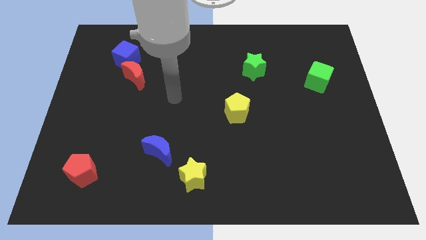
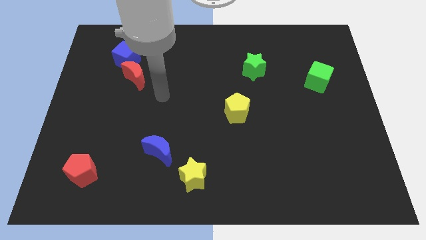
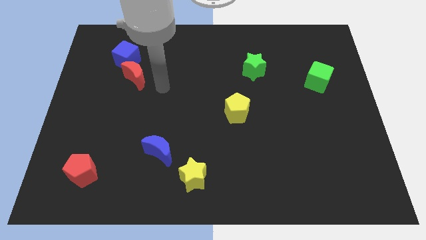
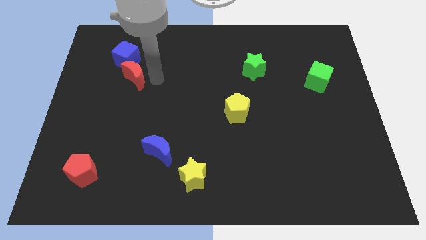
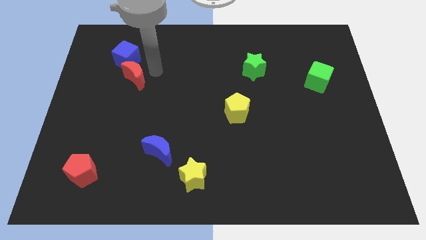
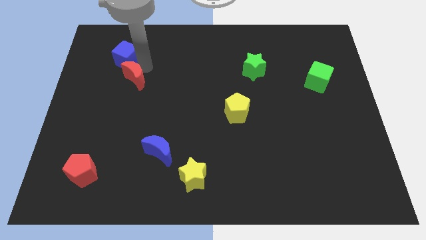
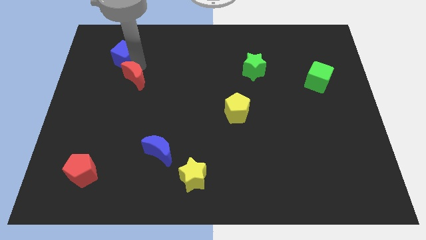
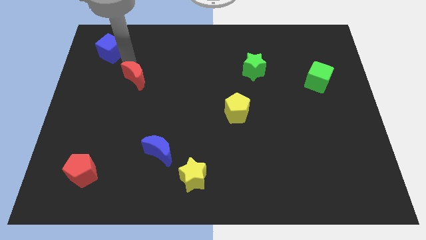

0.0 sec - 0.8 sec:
pull the red moon apart from the blue cube

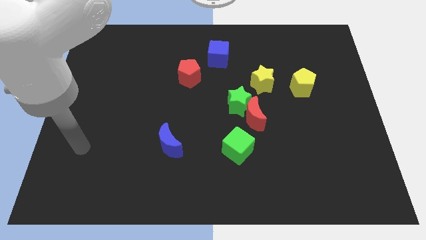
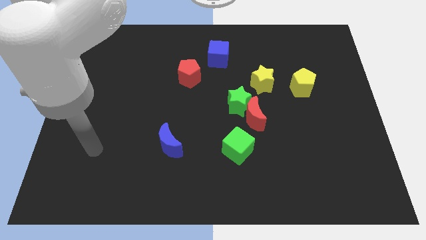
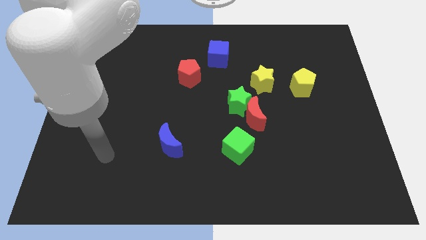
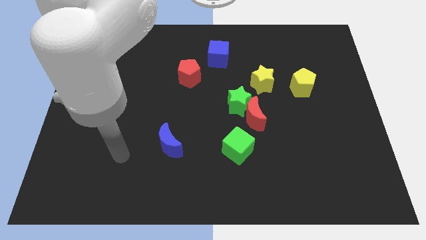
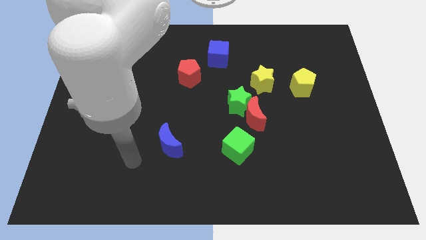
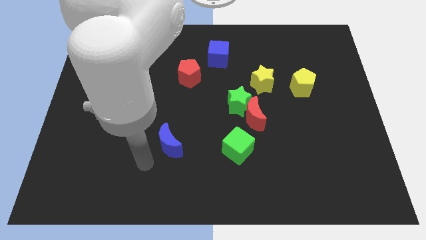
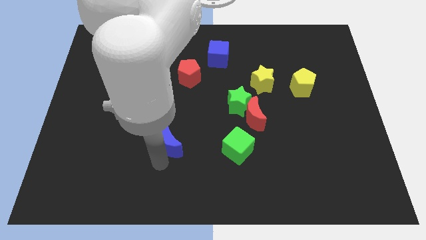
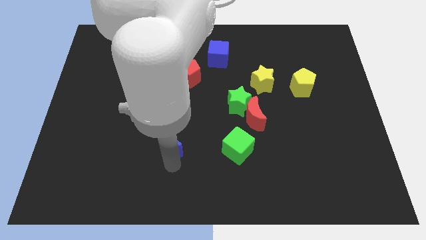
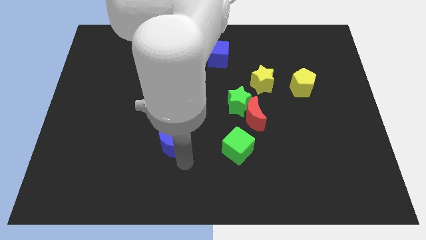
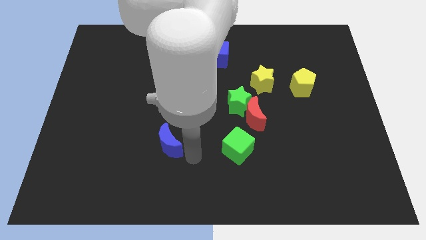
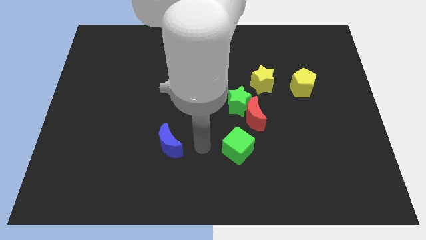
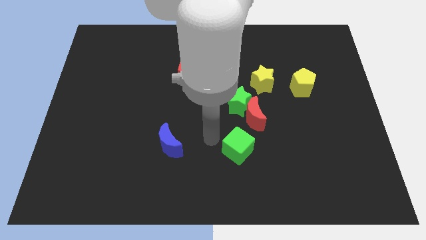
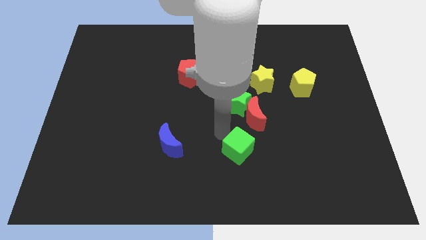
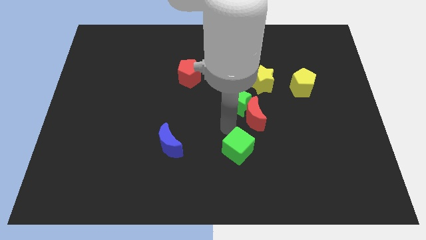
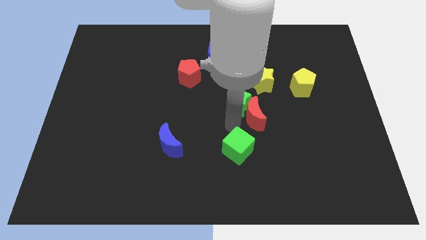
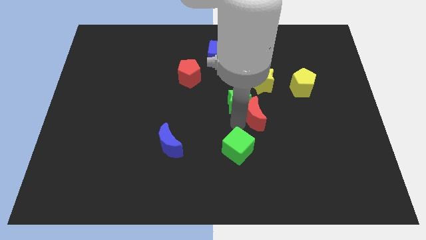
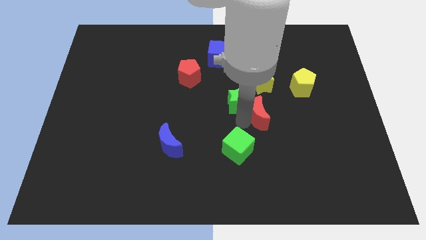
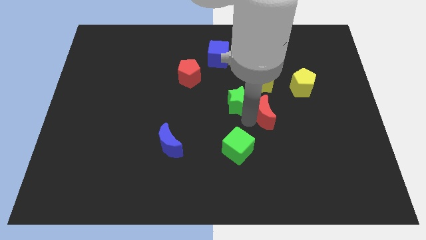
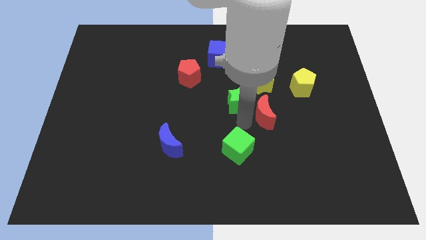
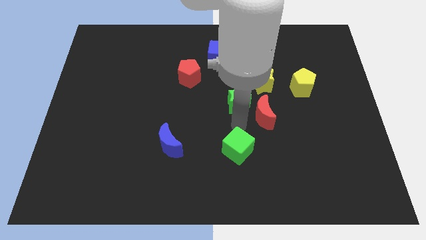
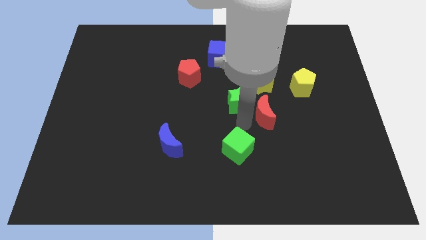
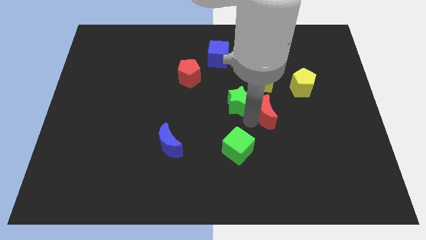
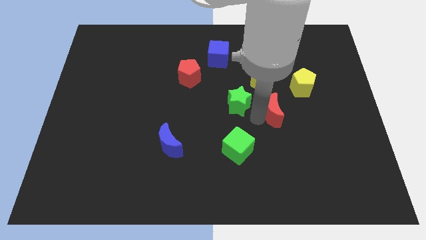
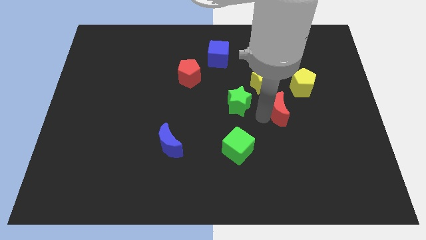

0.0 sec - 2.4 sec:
move the red moon away from the green star and green cube

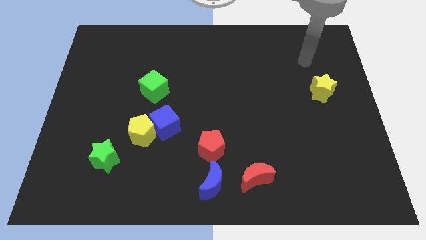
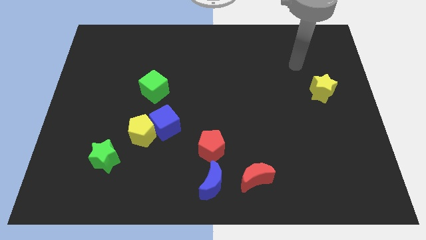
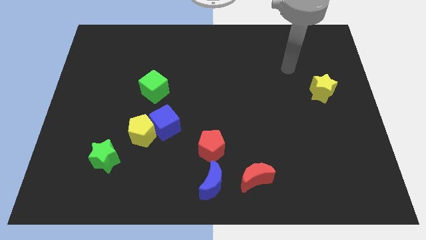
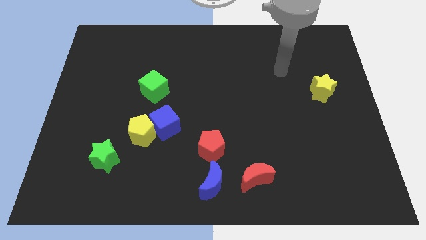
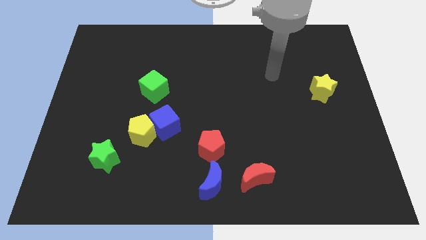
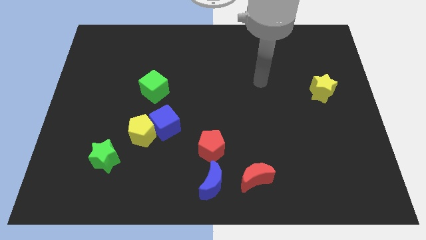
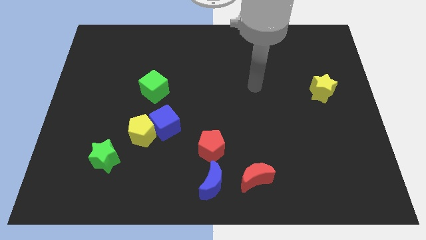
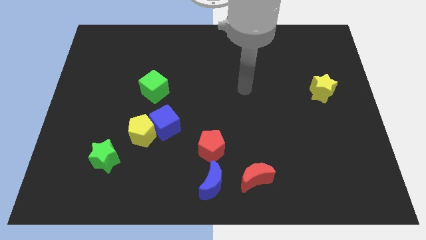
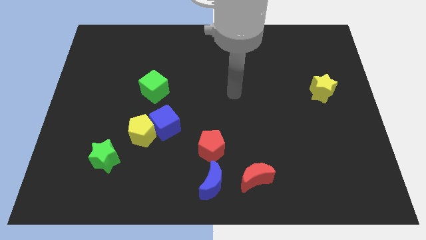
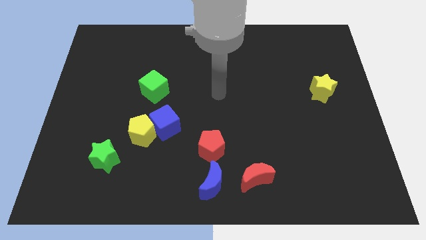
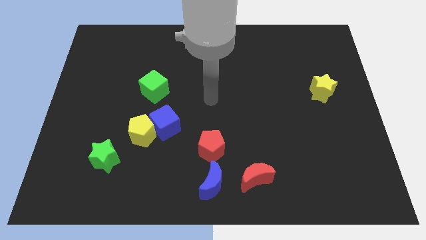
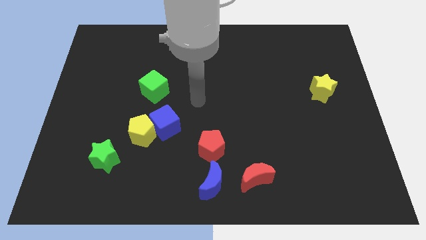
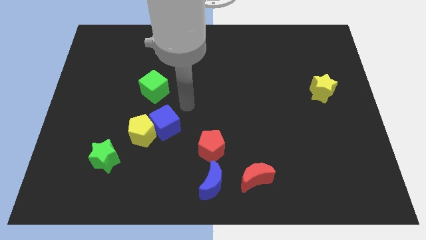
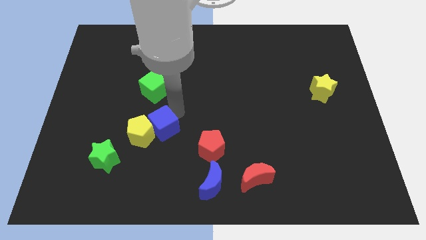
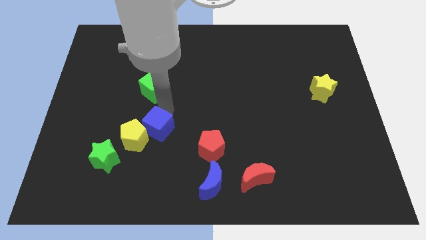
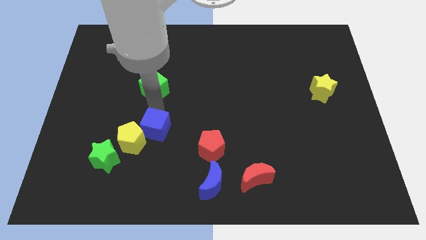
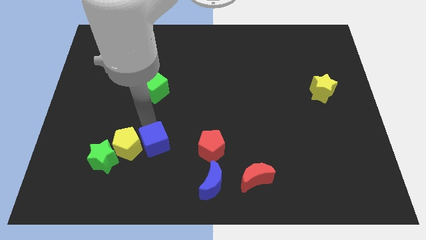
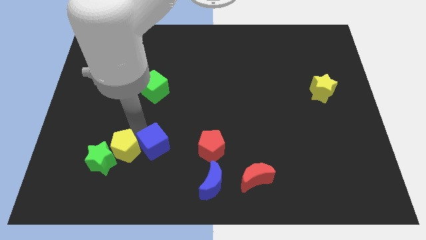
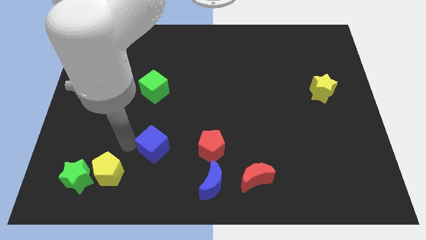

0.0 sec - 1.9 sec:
pull the blue cube apart from the yellow pentagon

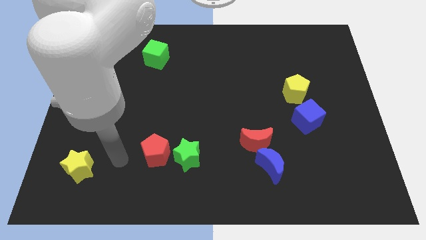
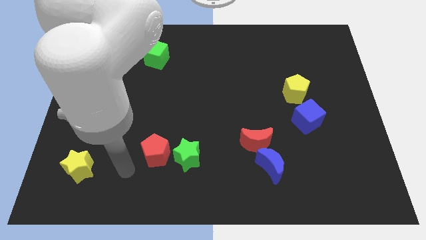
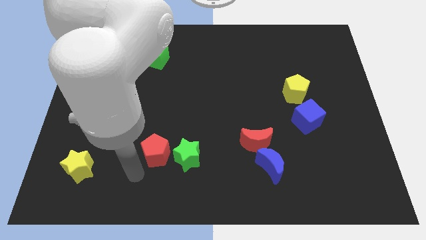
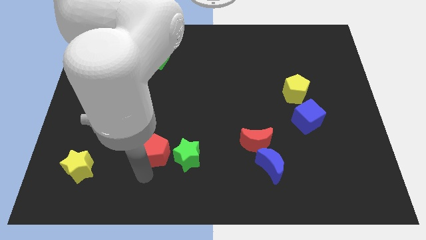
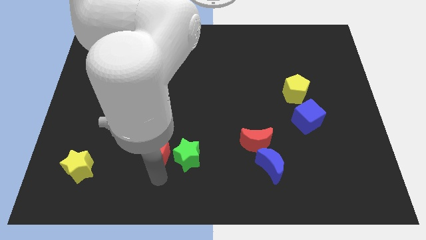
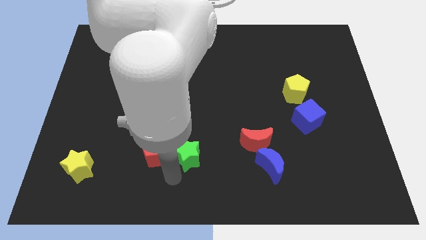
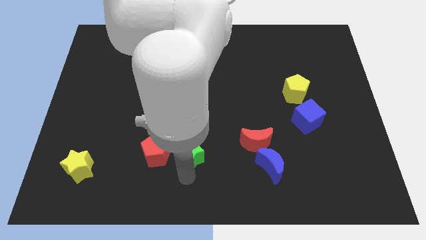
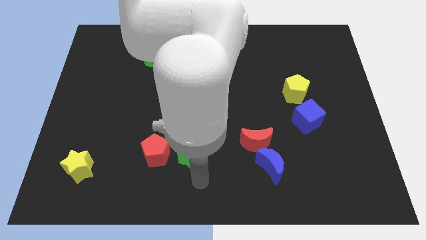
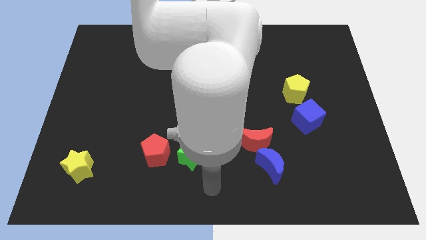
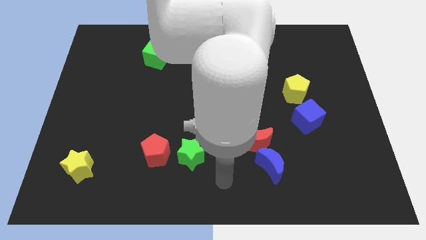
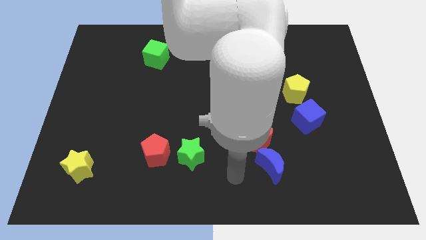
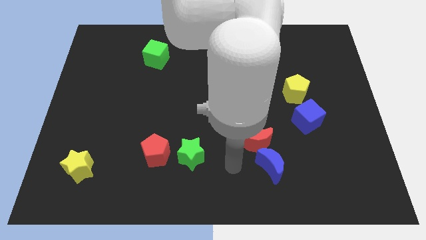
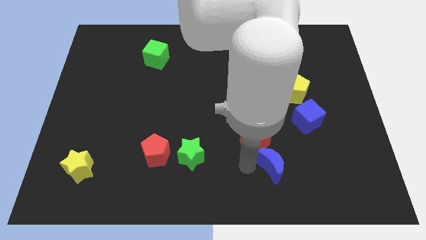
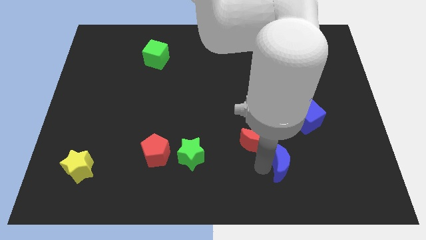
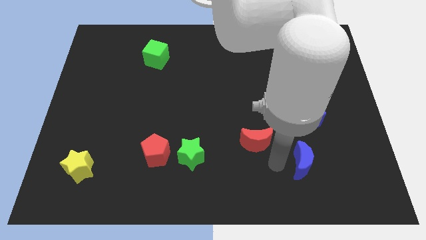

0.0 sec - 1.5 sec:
separate the red moon from the blue moon

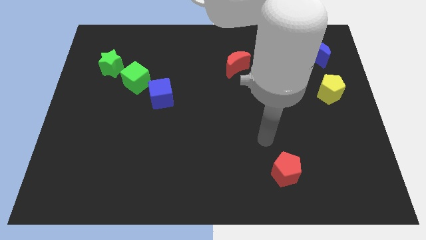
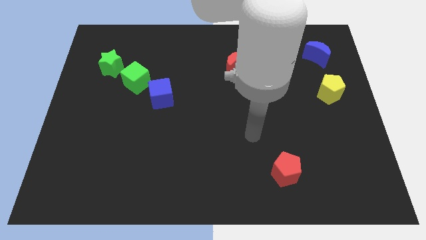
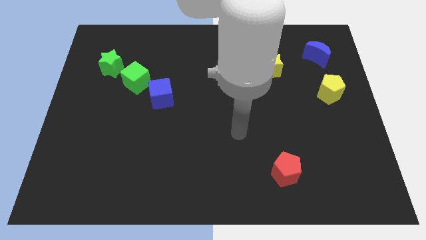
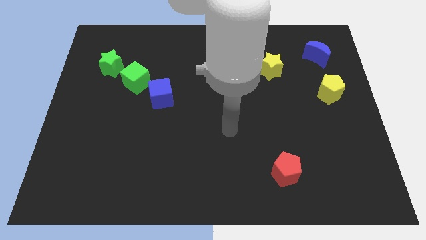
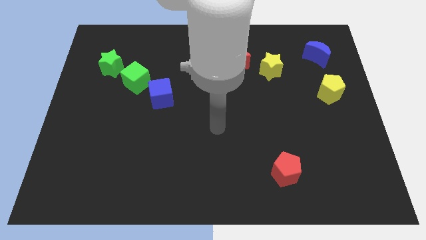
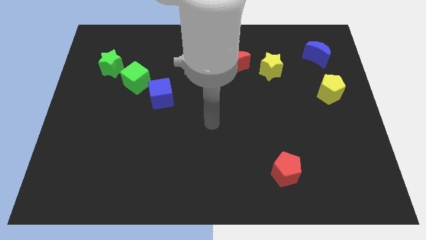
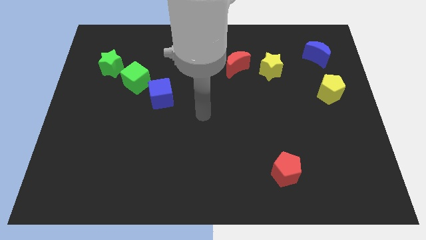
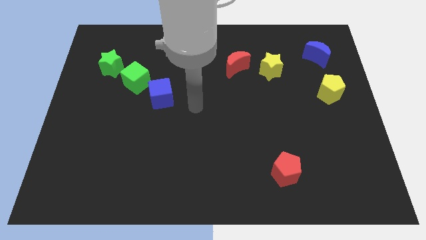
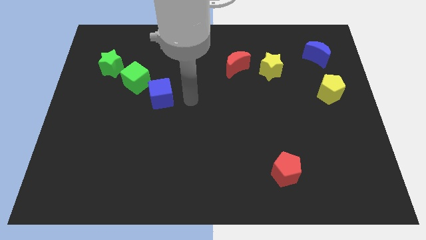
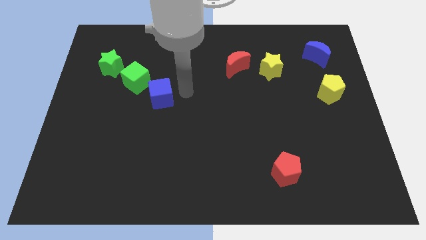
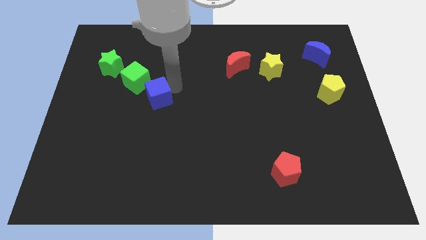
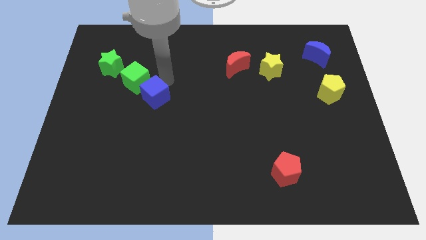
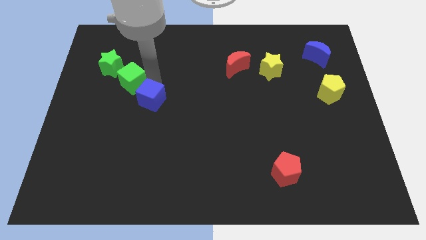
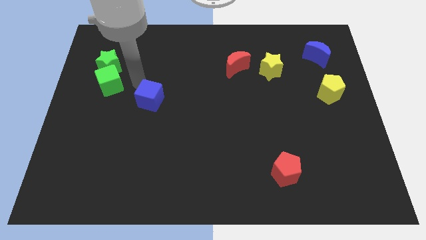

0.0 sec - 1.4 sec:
separate the blue cube from the green cube

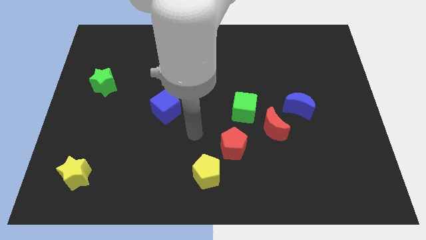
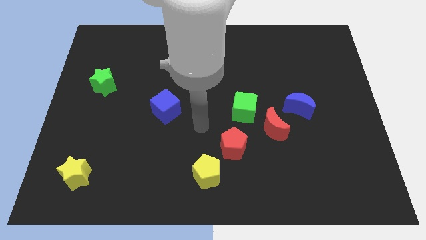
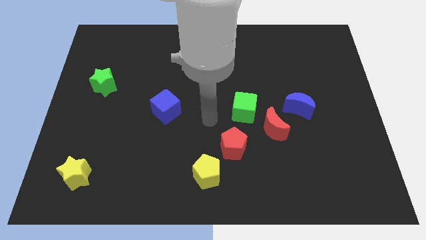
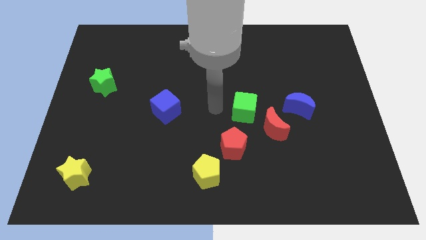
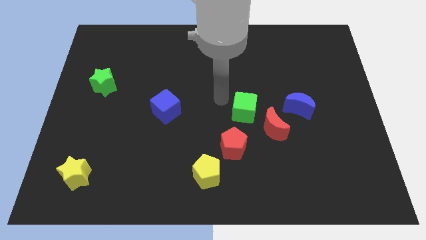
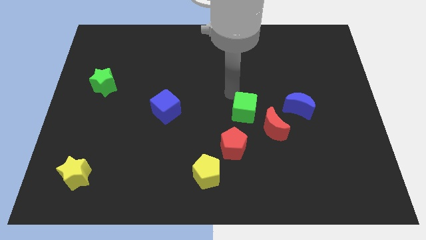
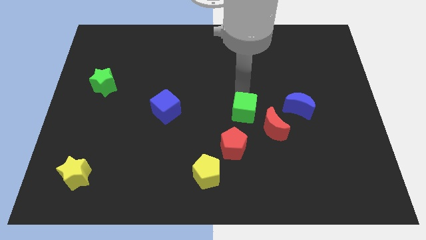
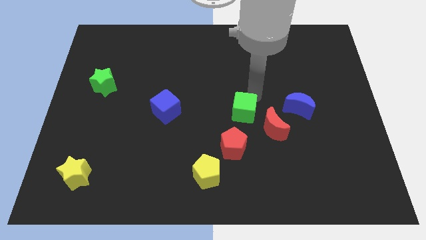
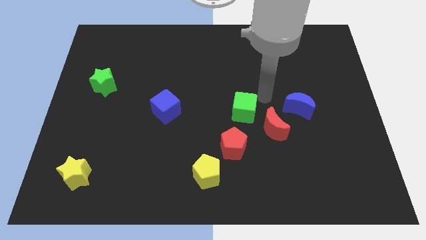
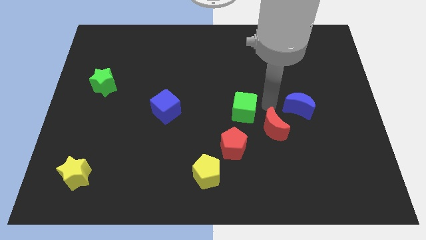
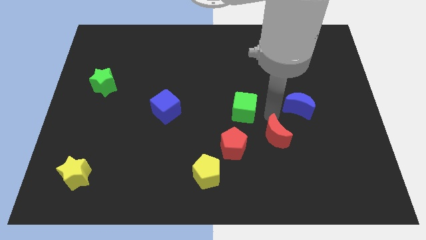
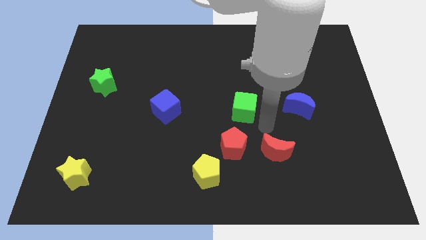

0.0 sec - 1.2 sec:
separate the green cube from the red moon

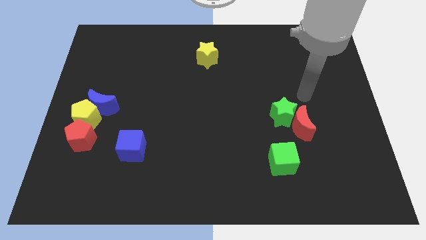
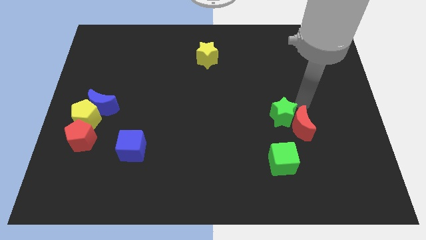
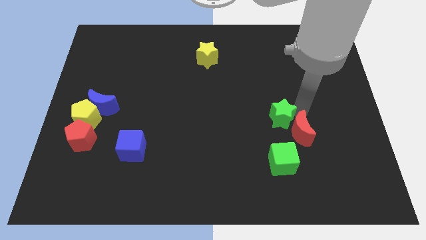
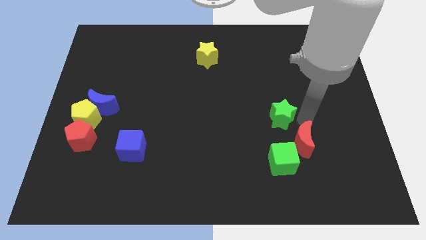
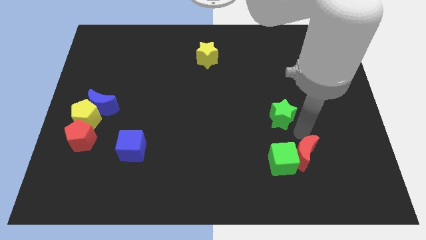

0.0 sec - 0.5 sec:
separate the green star from the red moon
